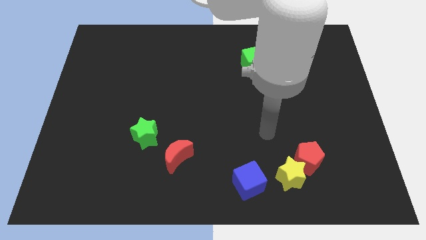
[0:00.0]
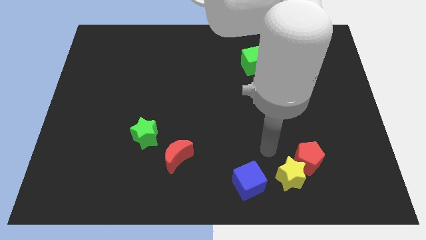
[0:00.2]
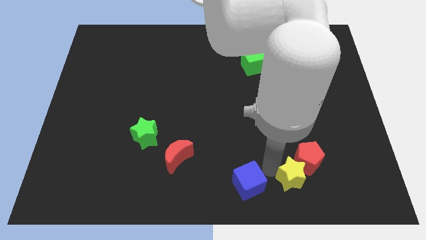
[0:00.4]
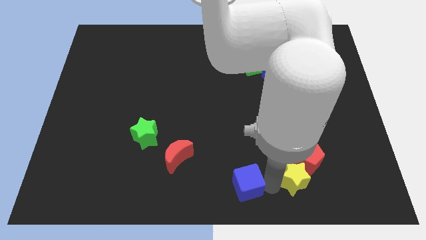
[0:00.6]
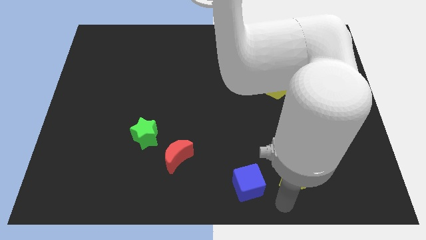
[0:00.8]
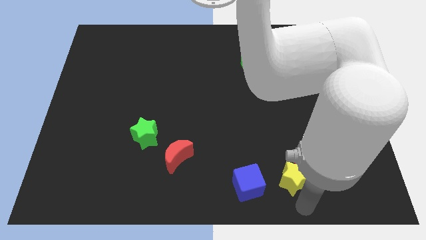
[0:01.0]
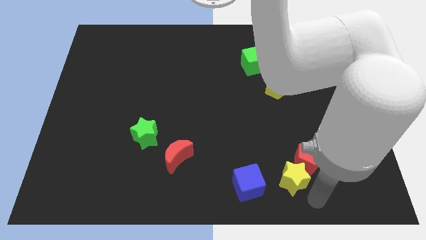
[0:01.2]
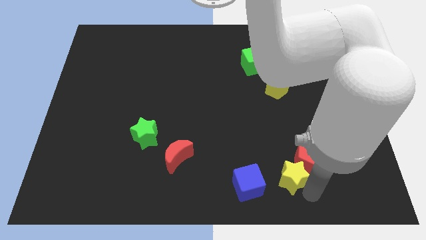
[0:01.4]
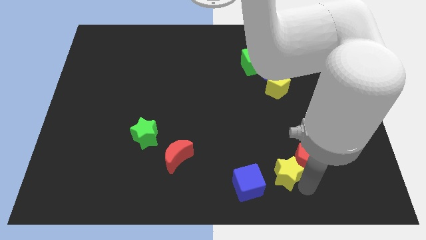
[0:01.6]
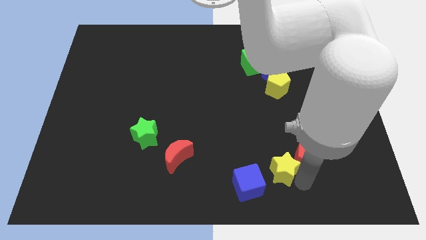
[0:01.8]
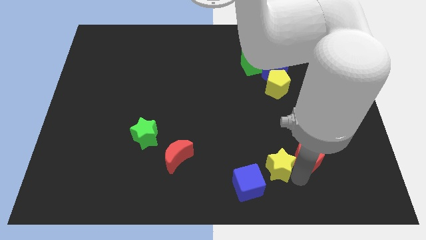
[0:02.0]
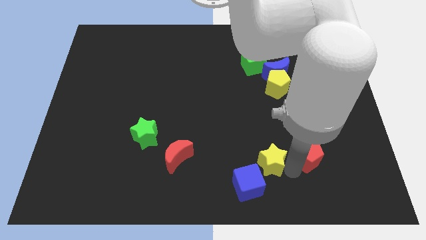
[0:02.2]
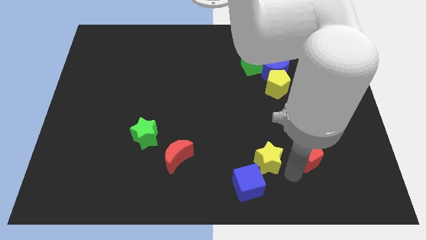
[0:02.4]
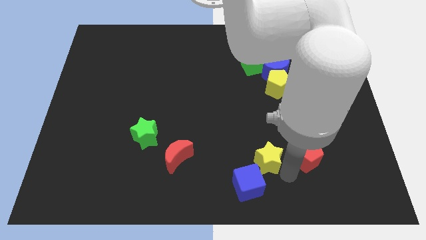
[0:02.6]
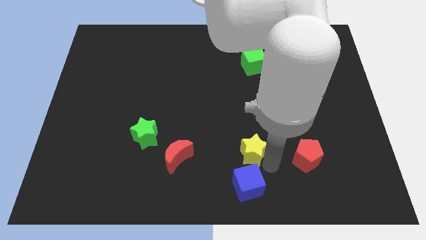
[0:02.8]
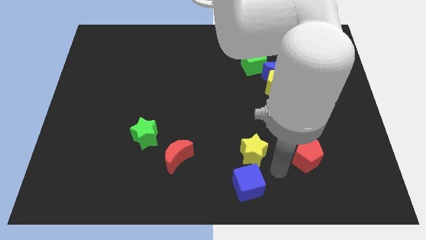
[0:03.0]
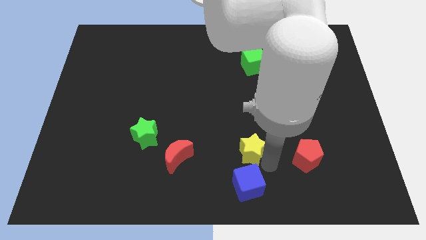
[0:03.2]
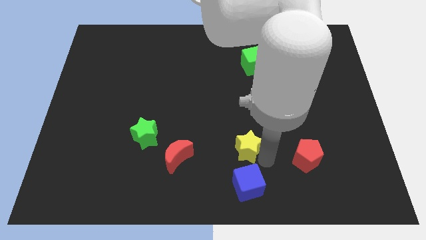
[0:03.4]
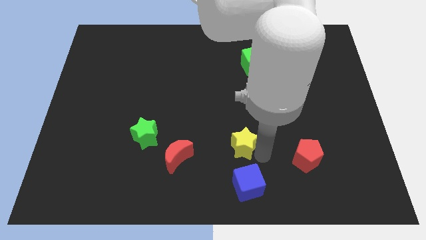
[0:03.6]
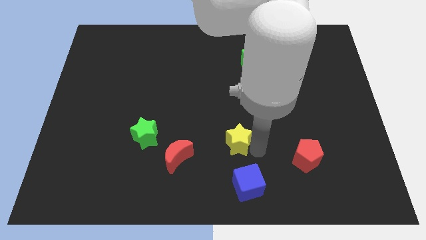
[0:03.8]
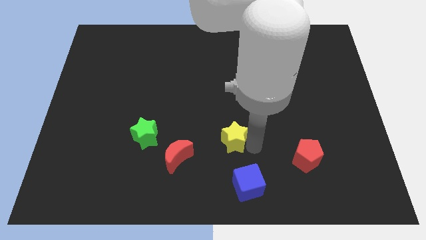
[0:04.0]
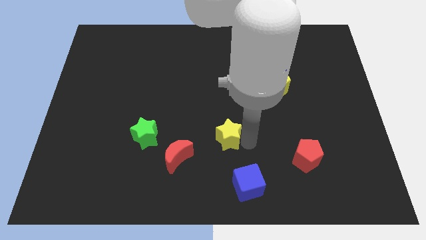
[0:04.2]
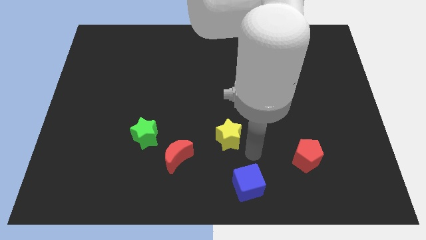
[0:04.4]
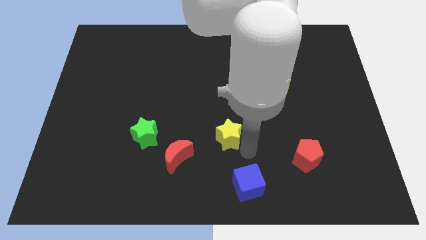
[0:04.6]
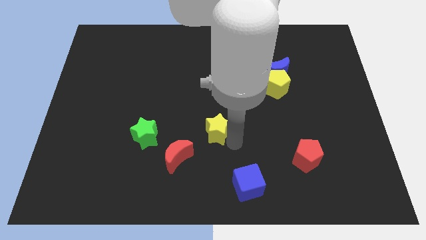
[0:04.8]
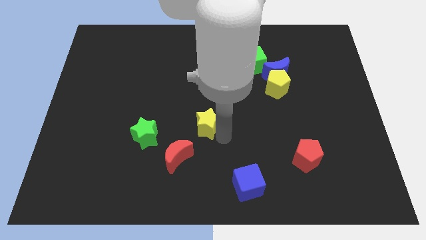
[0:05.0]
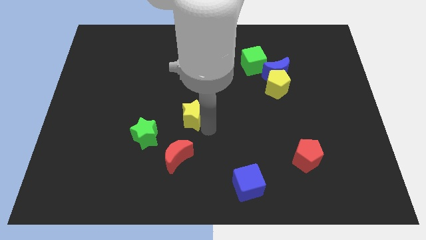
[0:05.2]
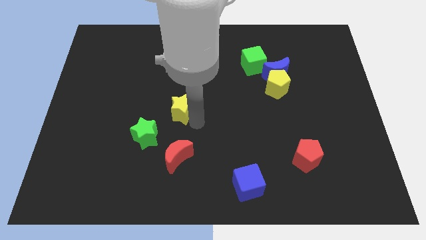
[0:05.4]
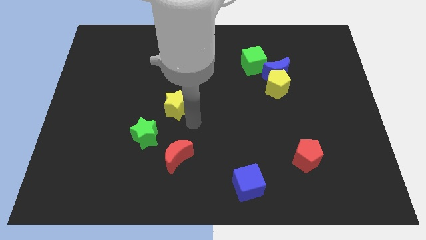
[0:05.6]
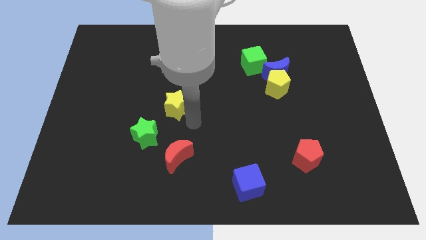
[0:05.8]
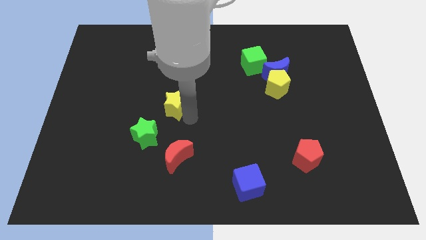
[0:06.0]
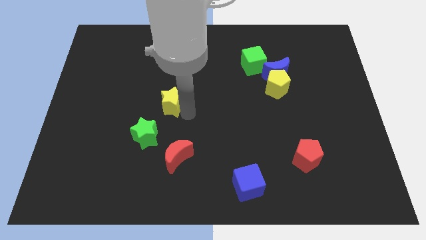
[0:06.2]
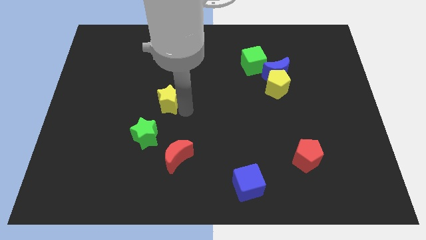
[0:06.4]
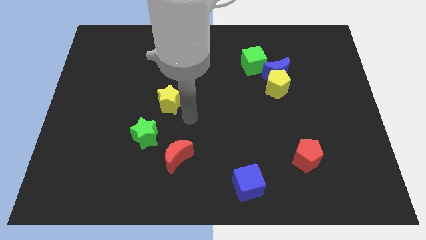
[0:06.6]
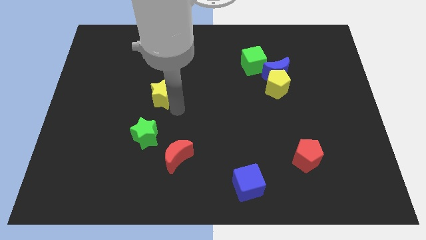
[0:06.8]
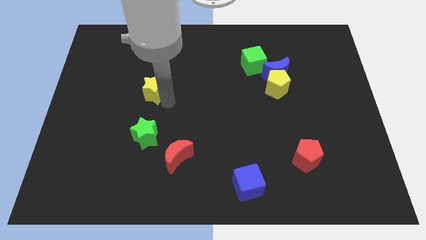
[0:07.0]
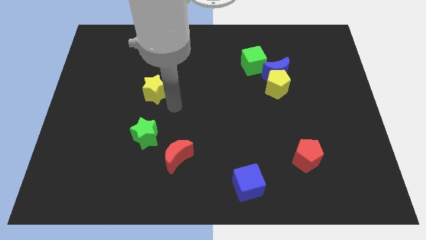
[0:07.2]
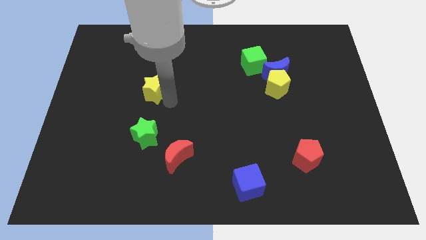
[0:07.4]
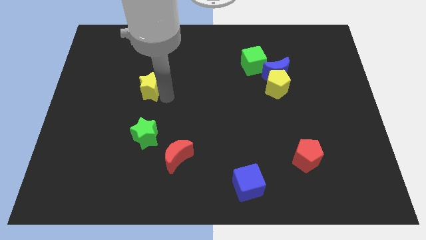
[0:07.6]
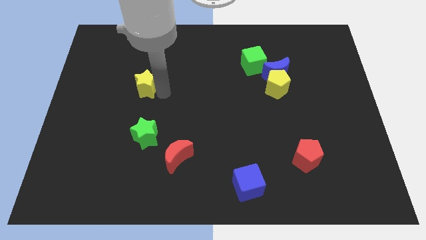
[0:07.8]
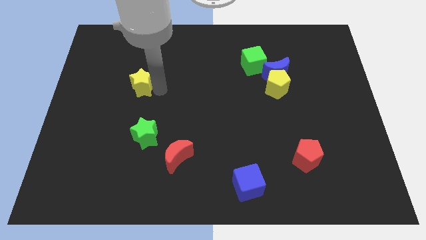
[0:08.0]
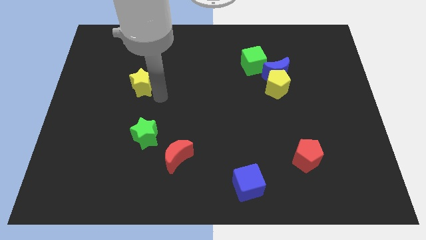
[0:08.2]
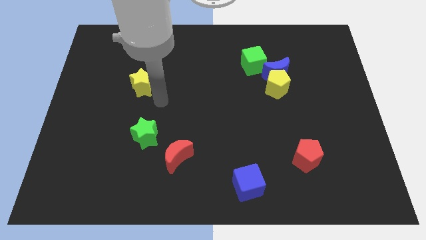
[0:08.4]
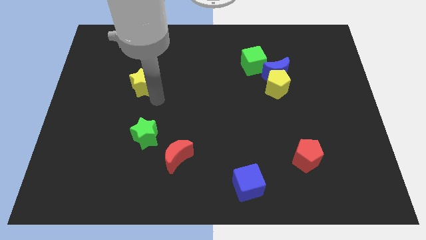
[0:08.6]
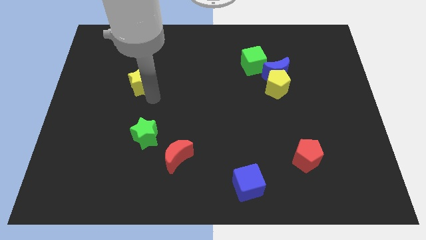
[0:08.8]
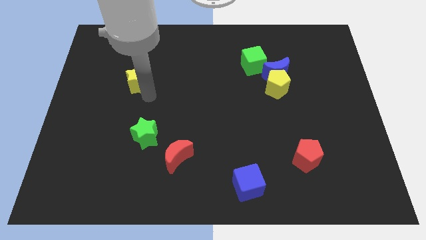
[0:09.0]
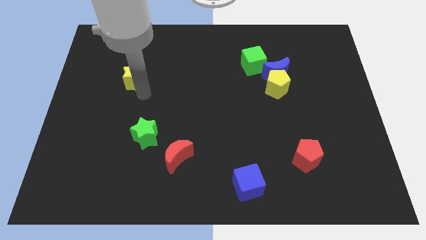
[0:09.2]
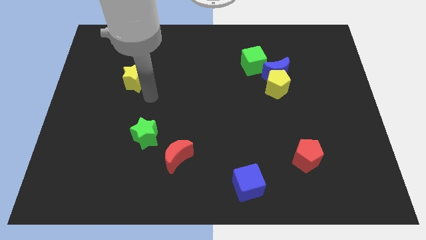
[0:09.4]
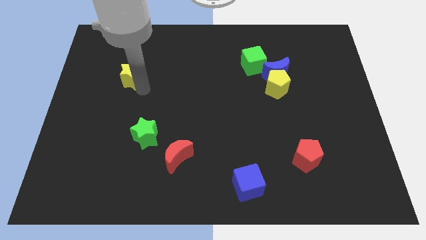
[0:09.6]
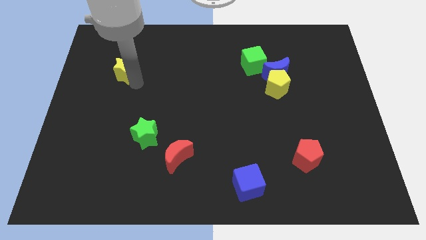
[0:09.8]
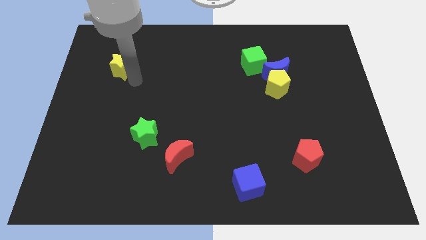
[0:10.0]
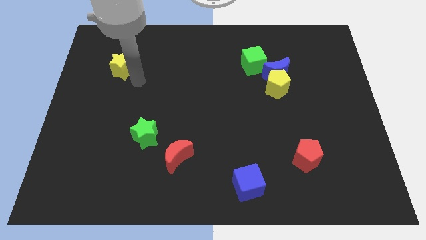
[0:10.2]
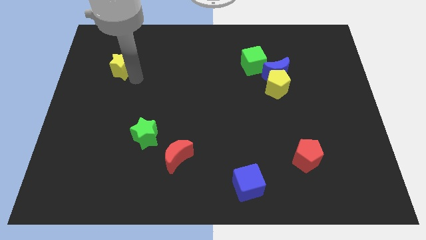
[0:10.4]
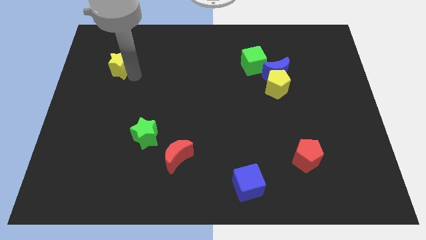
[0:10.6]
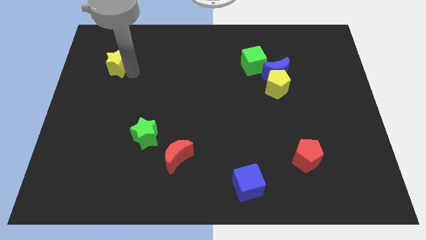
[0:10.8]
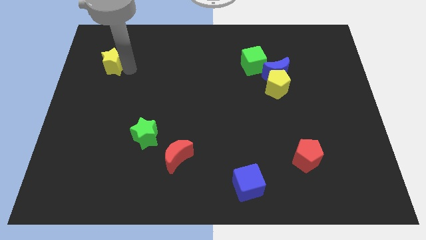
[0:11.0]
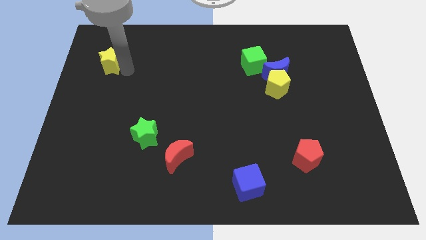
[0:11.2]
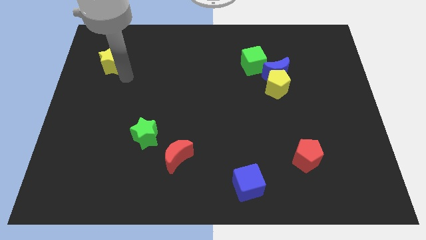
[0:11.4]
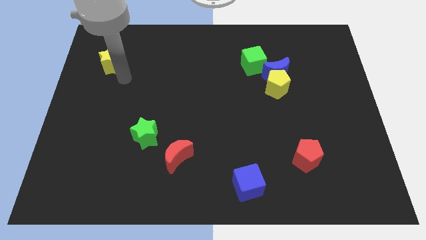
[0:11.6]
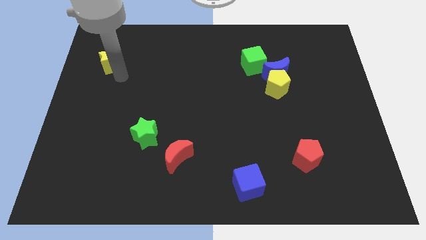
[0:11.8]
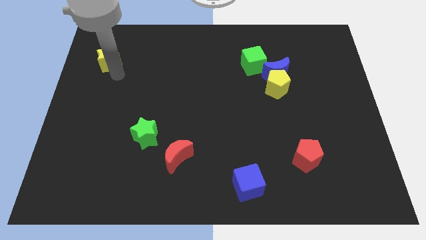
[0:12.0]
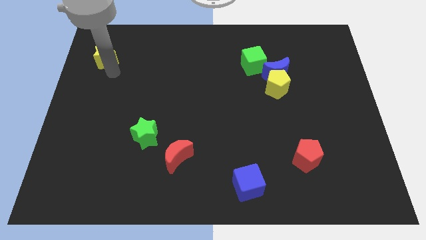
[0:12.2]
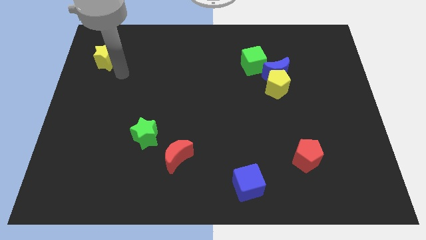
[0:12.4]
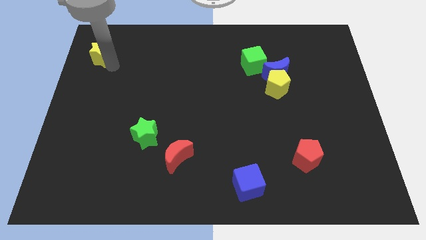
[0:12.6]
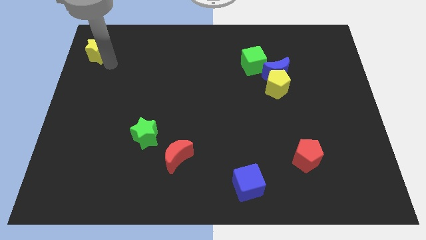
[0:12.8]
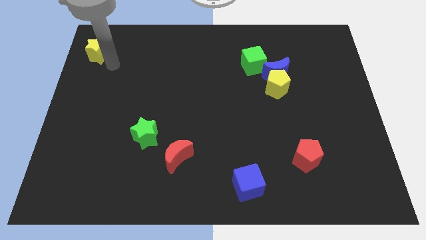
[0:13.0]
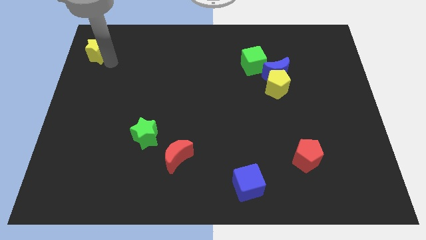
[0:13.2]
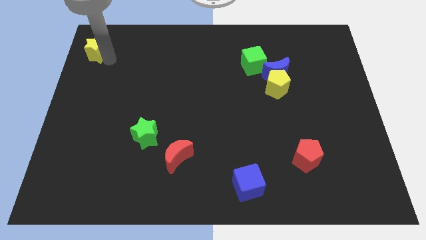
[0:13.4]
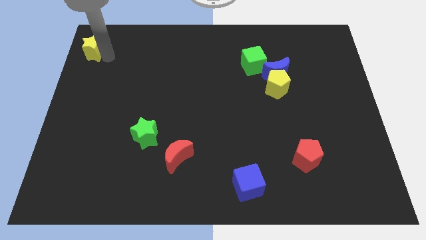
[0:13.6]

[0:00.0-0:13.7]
put the yellow star to the top left
